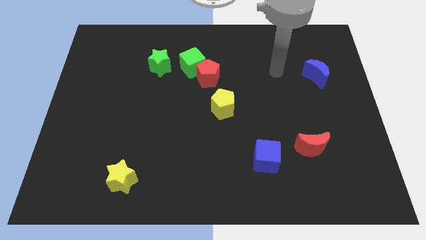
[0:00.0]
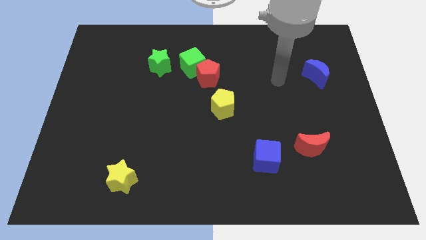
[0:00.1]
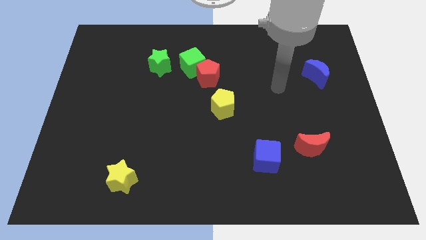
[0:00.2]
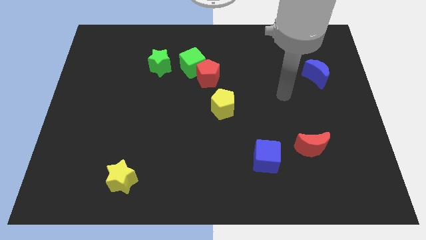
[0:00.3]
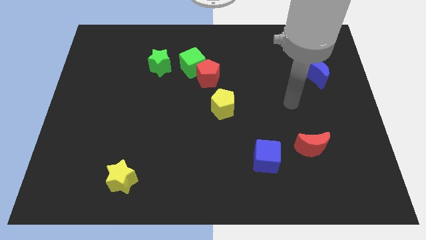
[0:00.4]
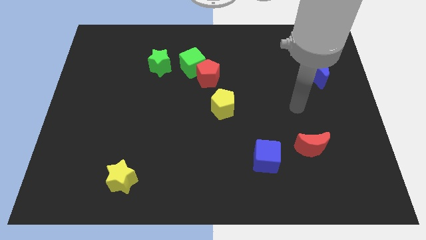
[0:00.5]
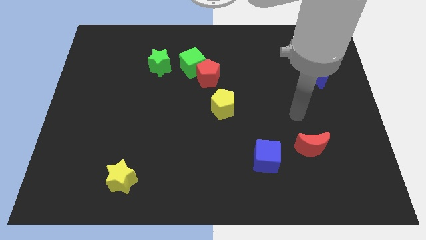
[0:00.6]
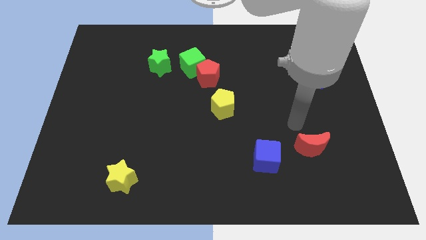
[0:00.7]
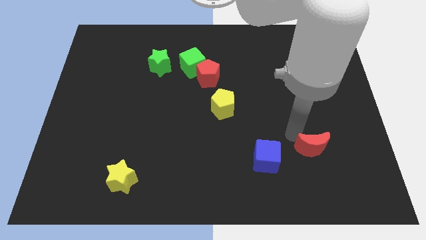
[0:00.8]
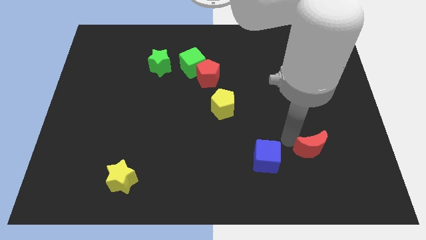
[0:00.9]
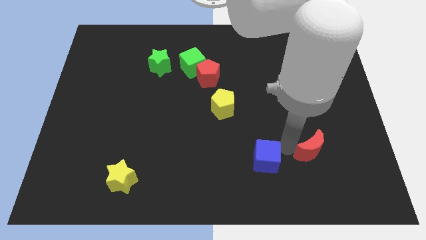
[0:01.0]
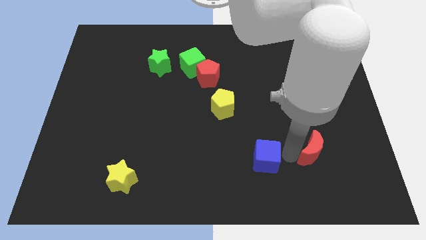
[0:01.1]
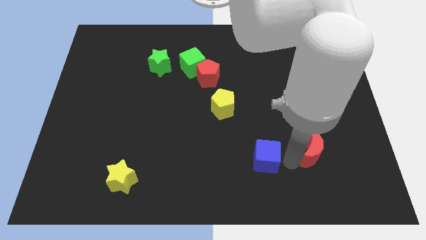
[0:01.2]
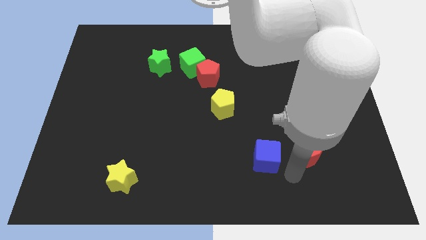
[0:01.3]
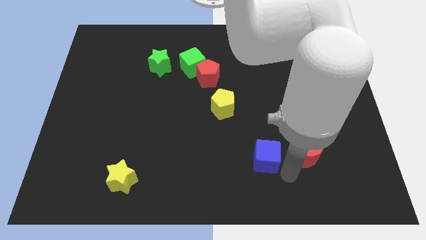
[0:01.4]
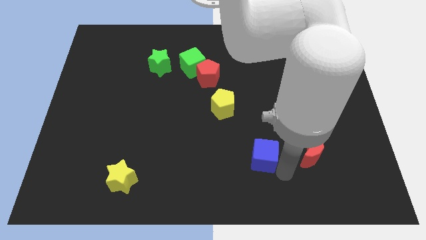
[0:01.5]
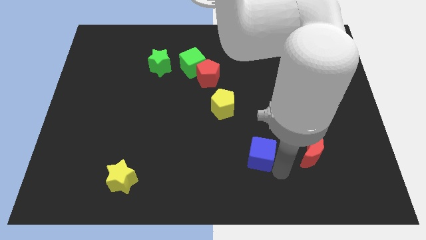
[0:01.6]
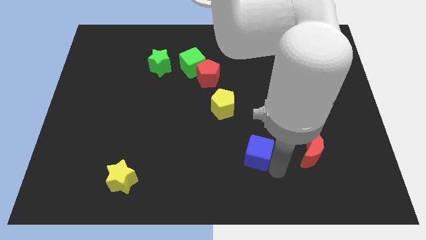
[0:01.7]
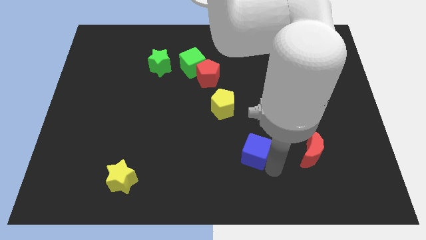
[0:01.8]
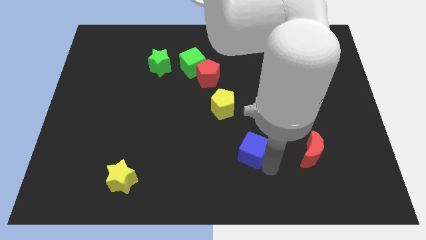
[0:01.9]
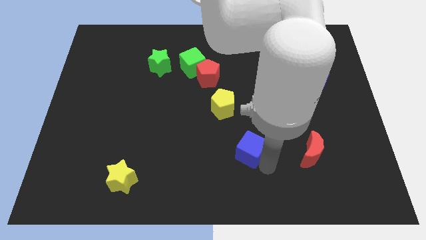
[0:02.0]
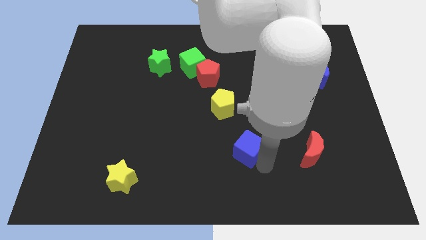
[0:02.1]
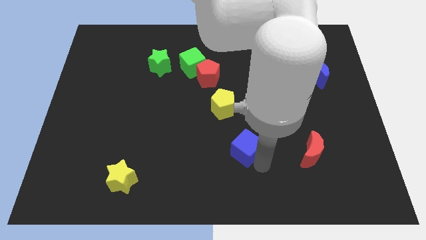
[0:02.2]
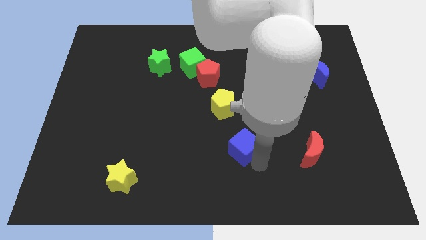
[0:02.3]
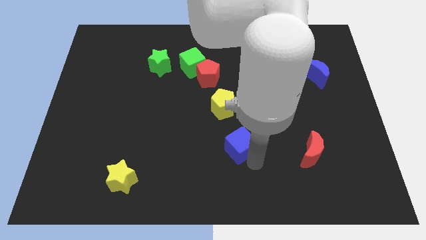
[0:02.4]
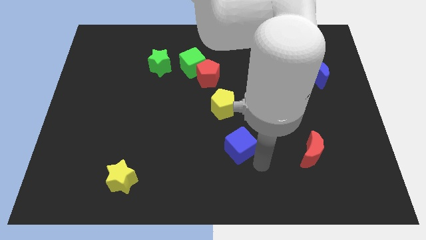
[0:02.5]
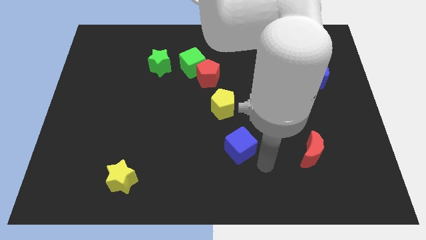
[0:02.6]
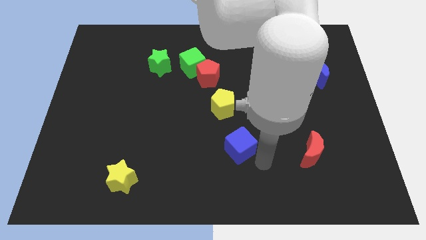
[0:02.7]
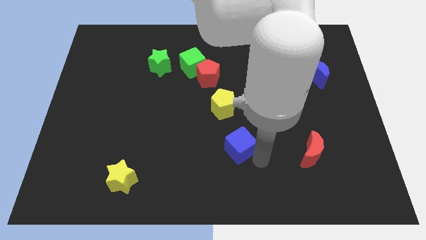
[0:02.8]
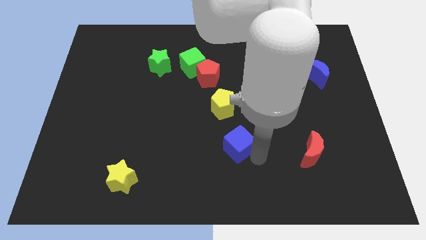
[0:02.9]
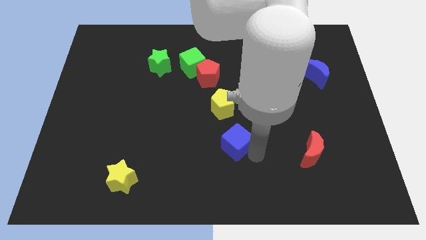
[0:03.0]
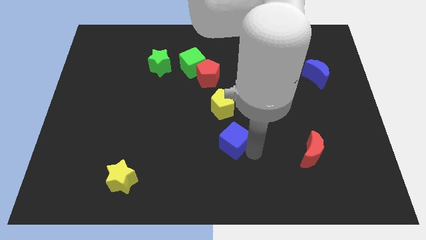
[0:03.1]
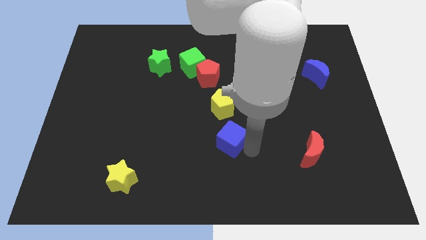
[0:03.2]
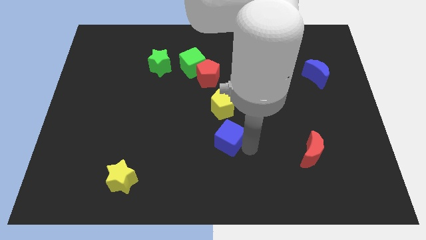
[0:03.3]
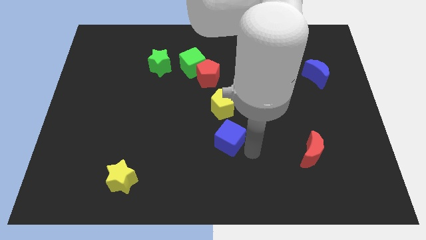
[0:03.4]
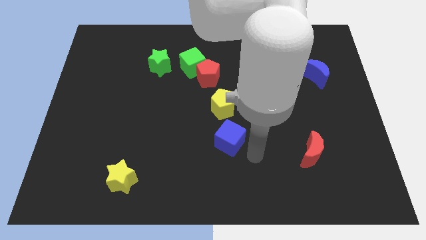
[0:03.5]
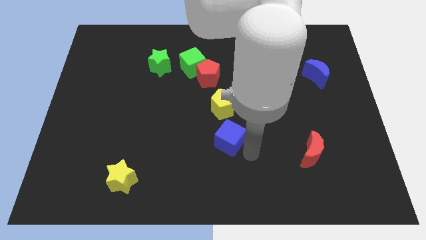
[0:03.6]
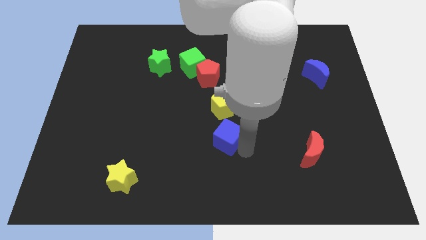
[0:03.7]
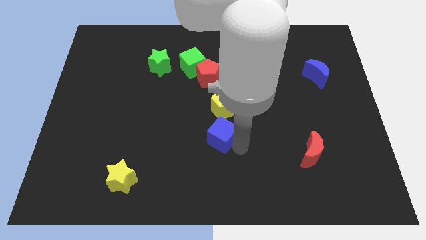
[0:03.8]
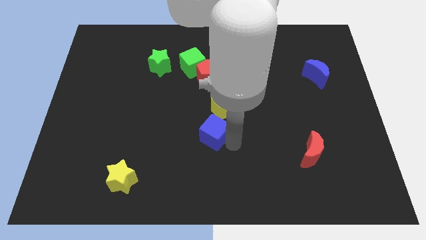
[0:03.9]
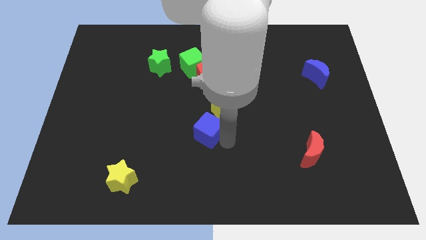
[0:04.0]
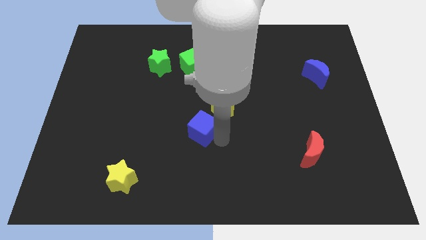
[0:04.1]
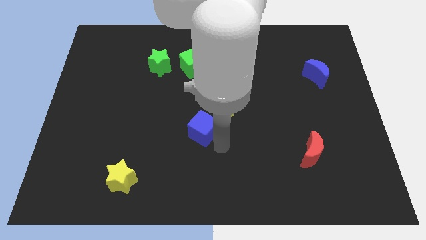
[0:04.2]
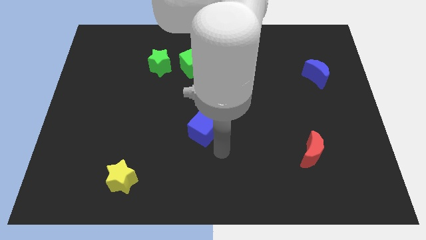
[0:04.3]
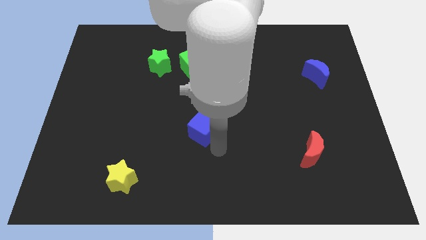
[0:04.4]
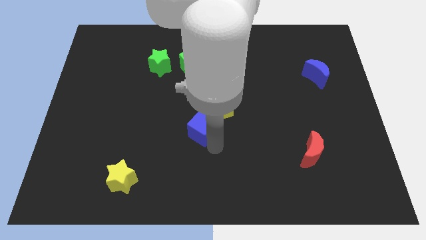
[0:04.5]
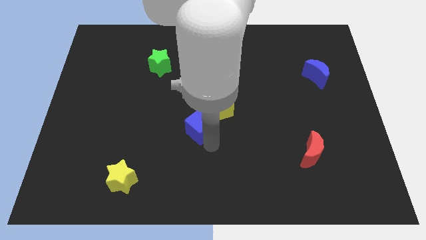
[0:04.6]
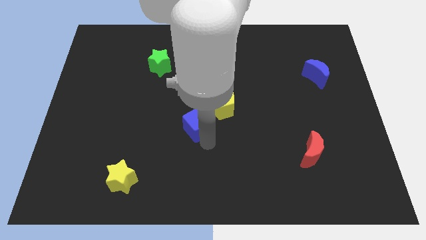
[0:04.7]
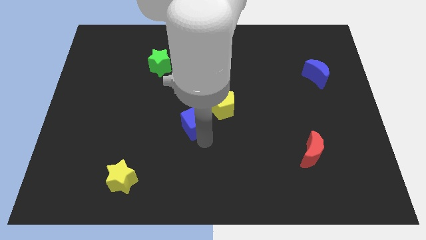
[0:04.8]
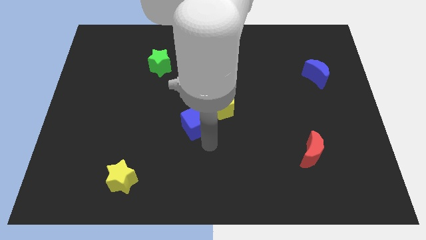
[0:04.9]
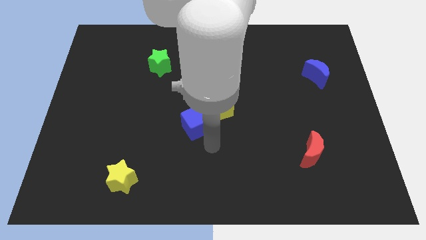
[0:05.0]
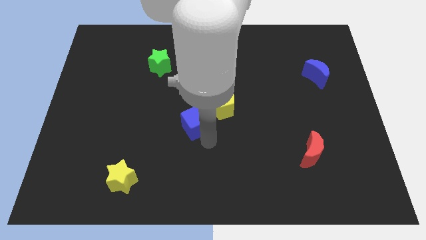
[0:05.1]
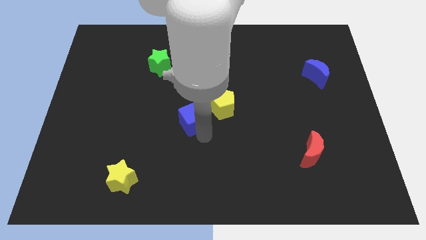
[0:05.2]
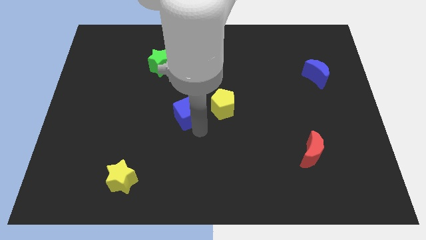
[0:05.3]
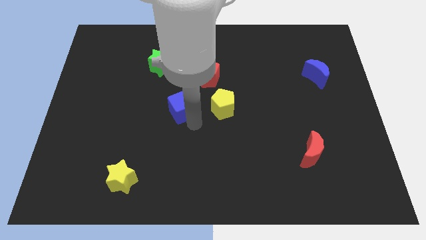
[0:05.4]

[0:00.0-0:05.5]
push the blue cube up and then left

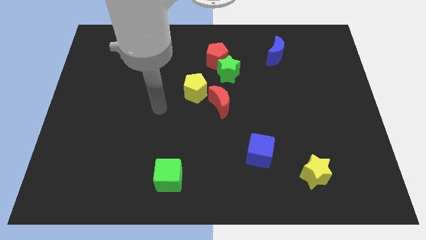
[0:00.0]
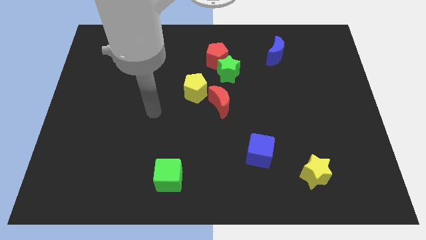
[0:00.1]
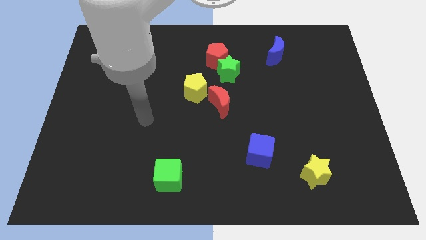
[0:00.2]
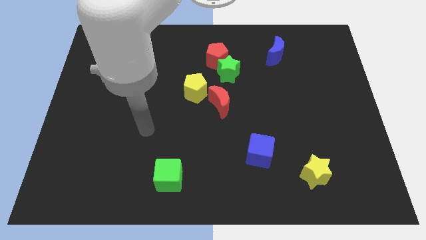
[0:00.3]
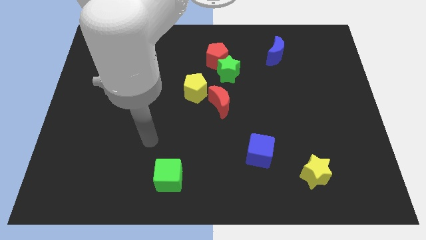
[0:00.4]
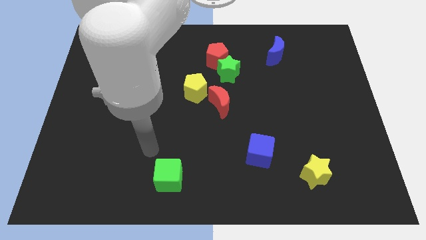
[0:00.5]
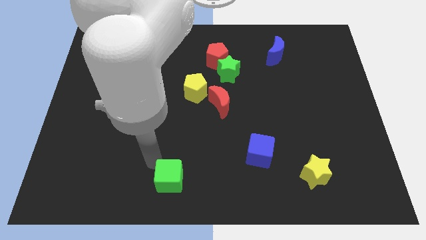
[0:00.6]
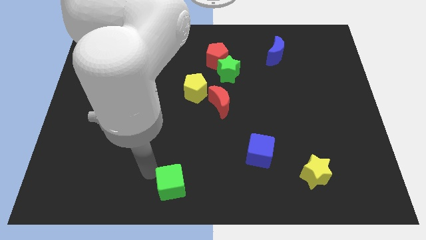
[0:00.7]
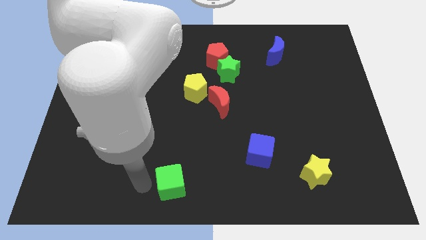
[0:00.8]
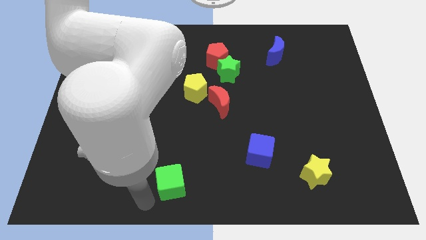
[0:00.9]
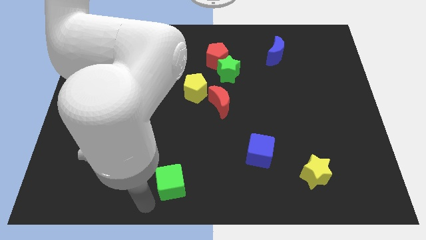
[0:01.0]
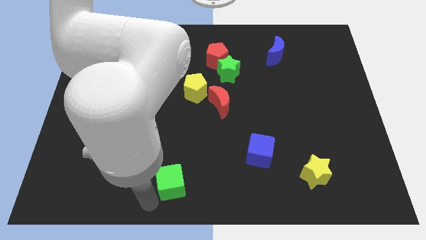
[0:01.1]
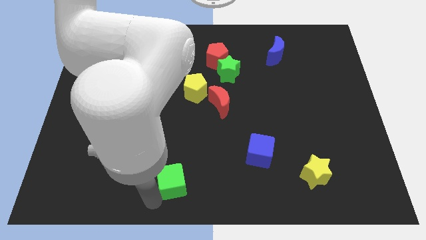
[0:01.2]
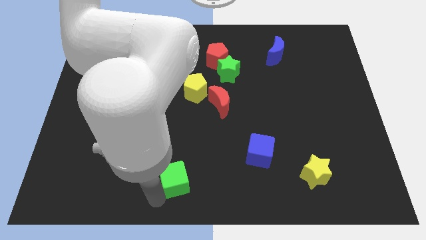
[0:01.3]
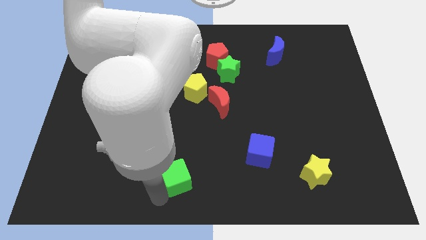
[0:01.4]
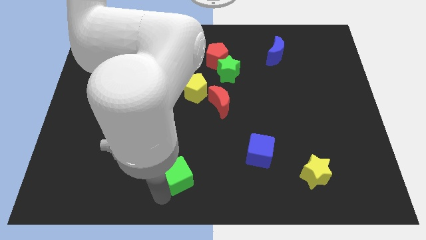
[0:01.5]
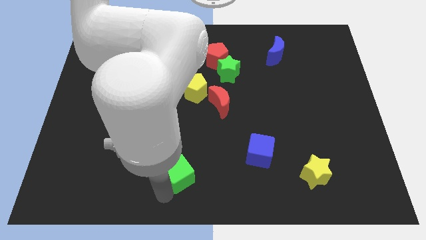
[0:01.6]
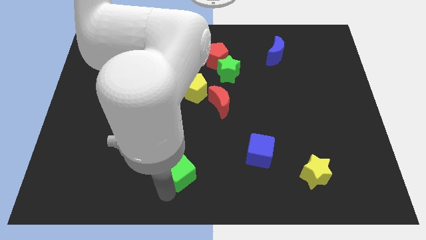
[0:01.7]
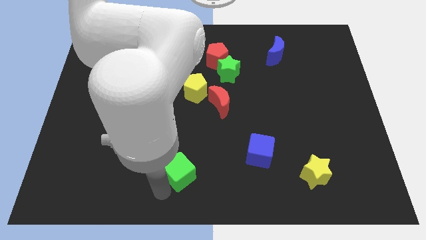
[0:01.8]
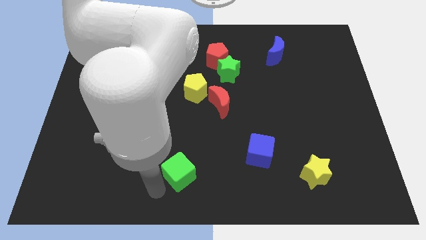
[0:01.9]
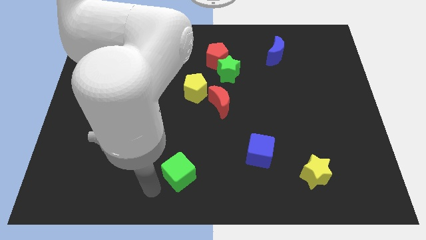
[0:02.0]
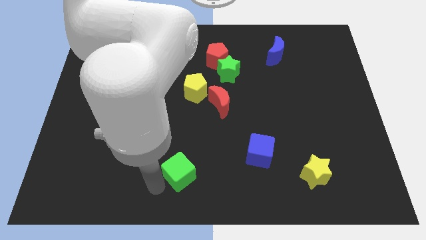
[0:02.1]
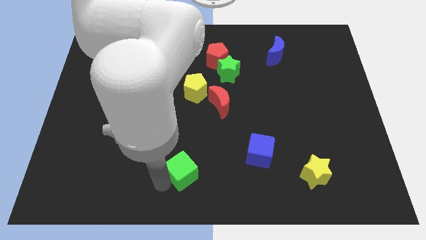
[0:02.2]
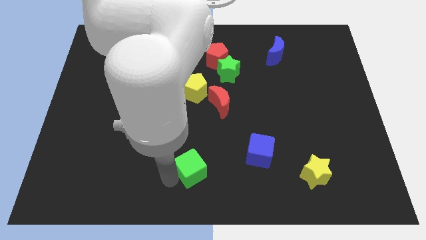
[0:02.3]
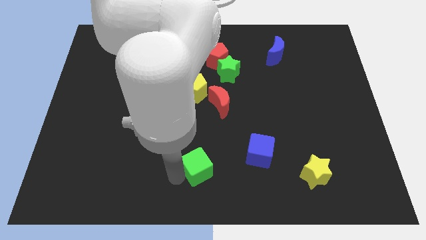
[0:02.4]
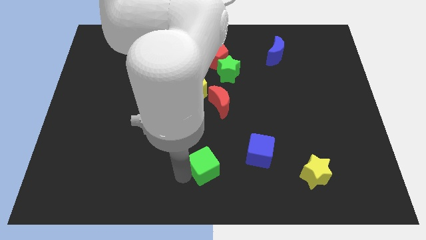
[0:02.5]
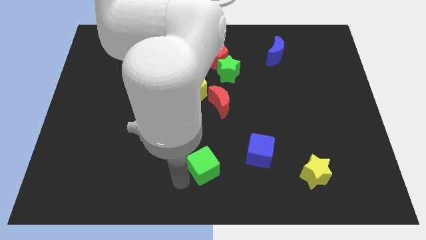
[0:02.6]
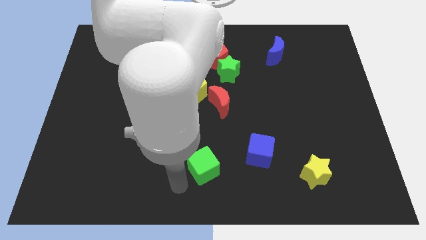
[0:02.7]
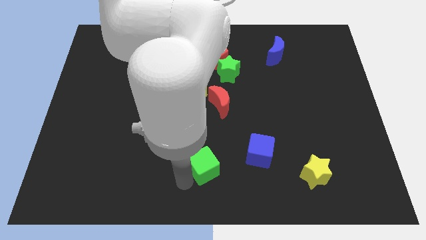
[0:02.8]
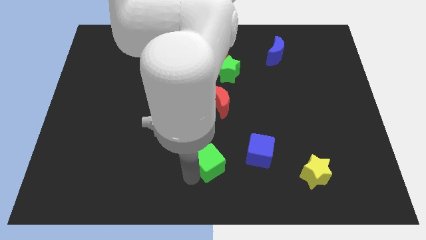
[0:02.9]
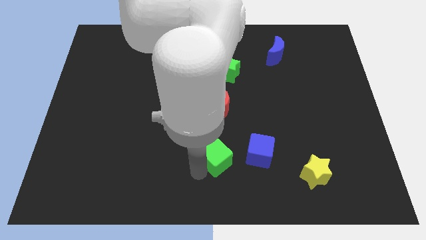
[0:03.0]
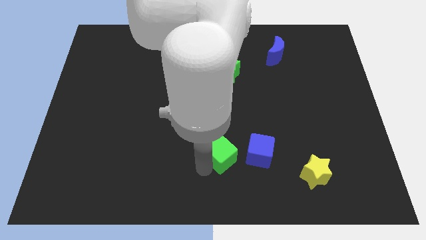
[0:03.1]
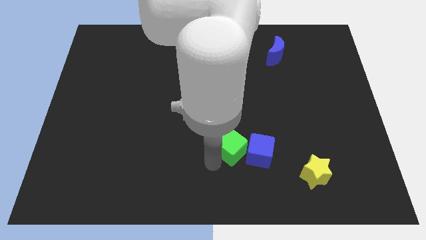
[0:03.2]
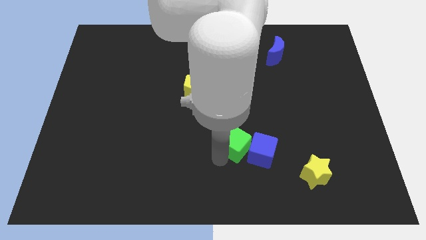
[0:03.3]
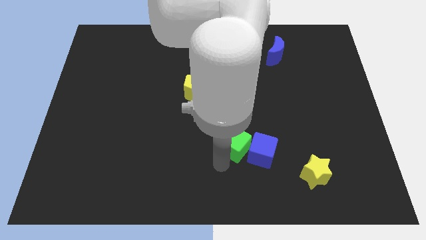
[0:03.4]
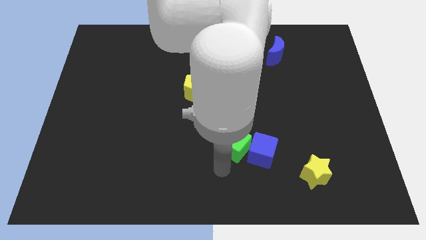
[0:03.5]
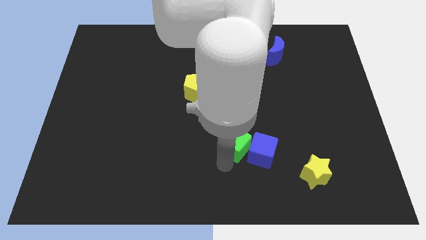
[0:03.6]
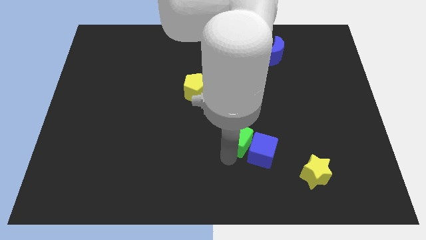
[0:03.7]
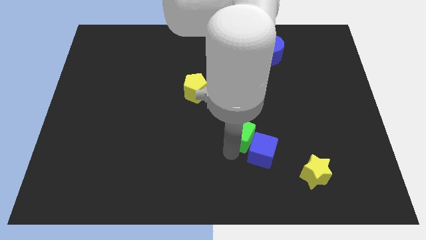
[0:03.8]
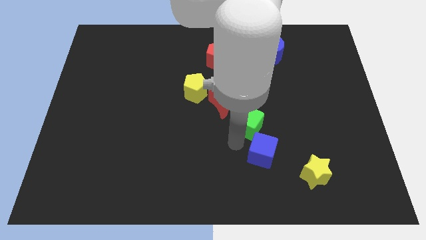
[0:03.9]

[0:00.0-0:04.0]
slide the green cube upwards and right diagonally
